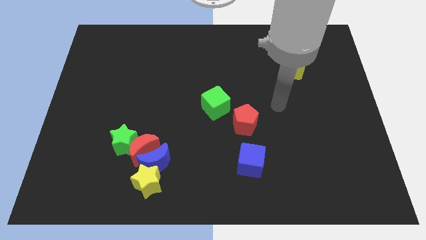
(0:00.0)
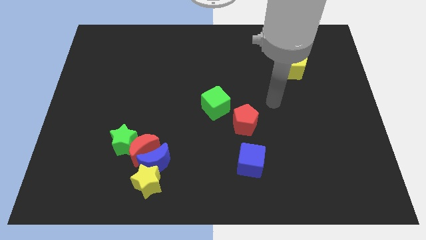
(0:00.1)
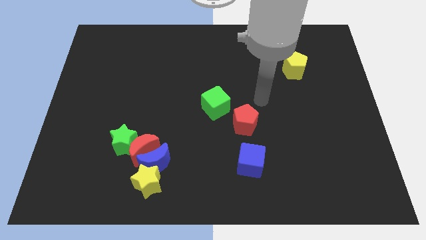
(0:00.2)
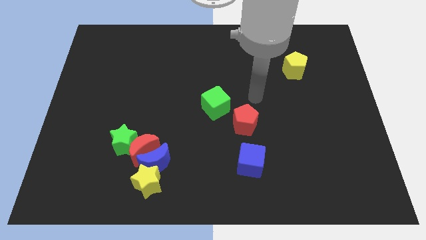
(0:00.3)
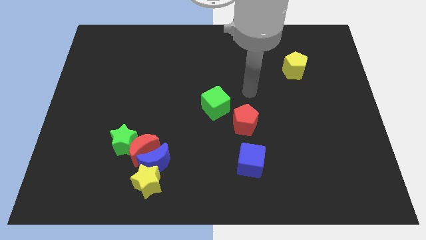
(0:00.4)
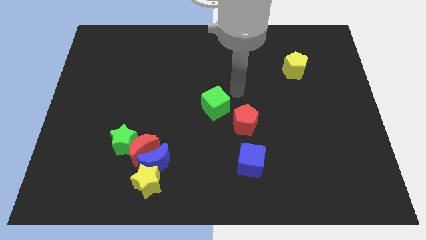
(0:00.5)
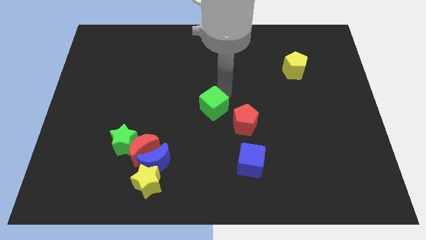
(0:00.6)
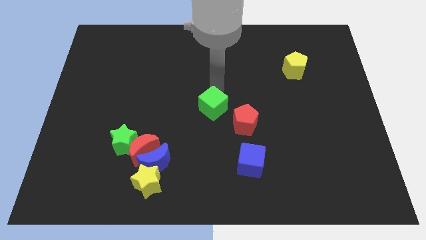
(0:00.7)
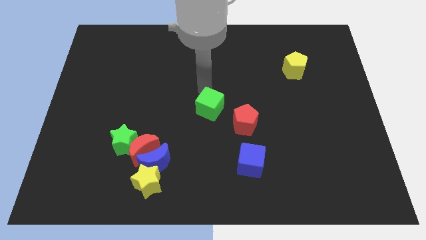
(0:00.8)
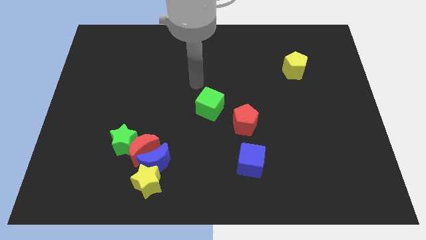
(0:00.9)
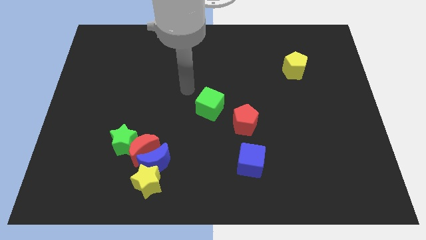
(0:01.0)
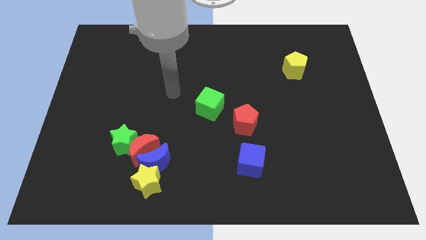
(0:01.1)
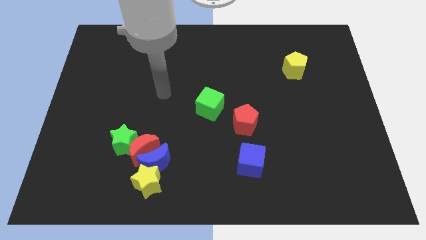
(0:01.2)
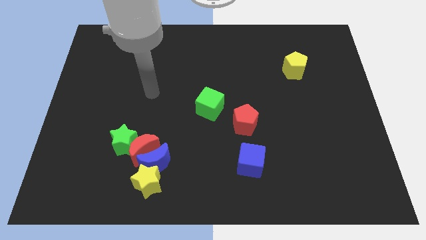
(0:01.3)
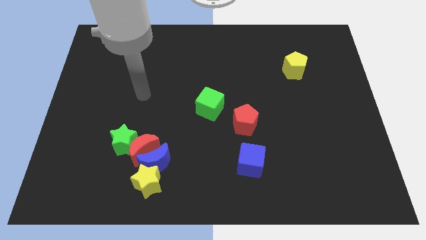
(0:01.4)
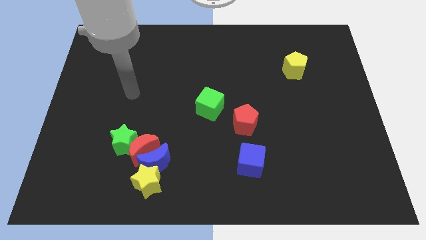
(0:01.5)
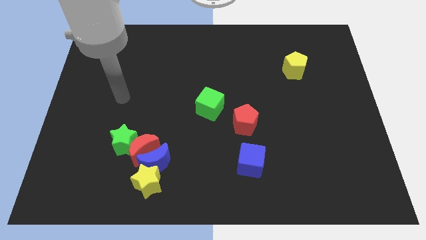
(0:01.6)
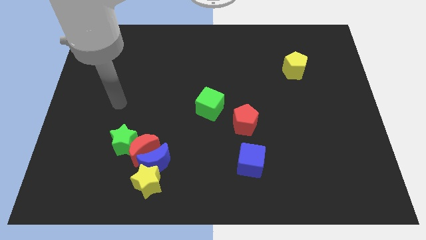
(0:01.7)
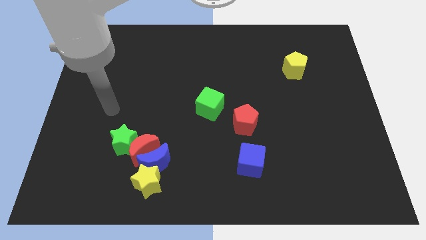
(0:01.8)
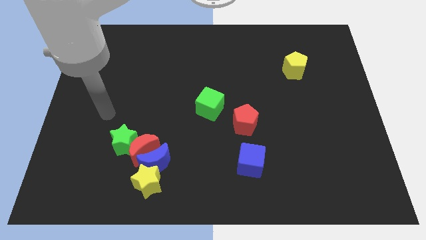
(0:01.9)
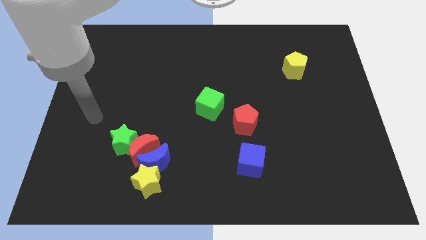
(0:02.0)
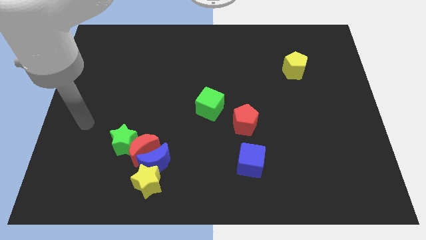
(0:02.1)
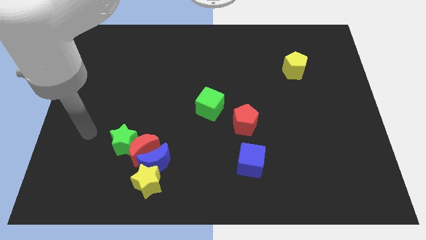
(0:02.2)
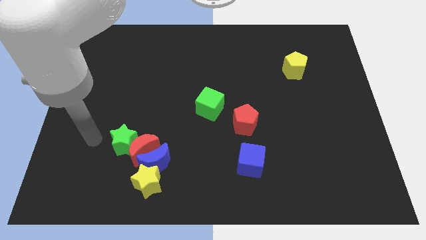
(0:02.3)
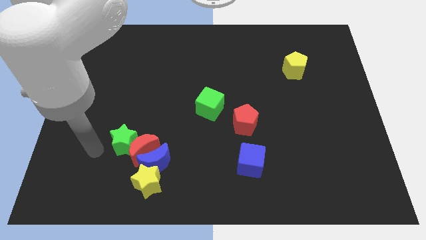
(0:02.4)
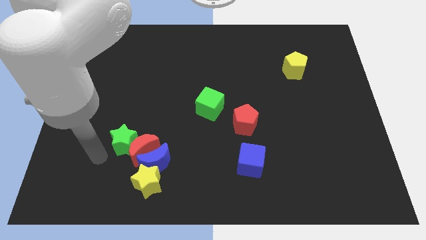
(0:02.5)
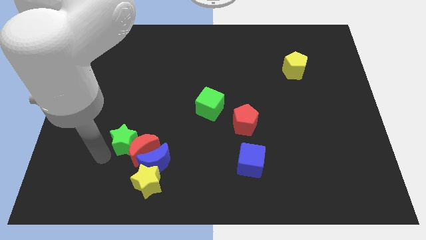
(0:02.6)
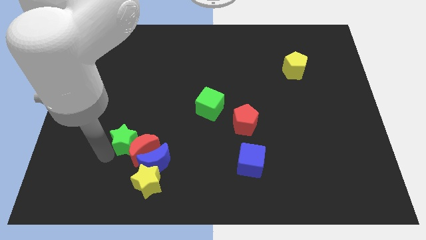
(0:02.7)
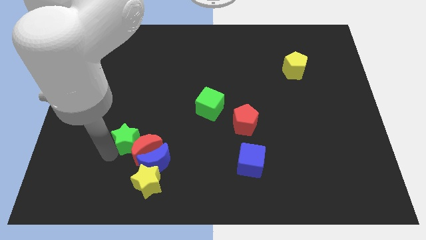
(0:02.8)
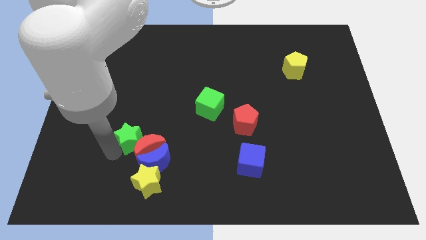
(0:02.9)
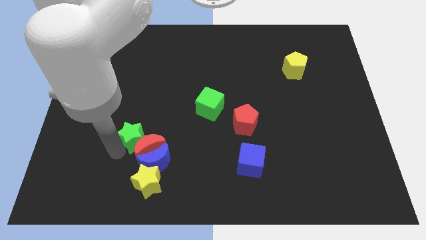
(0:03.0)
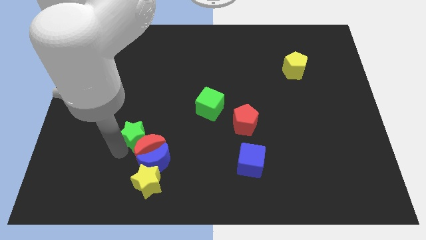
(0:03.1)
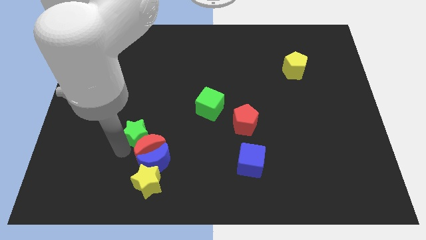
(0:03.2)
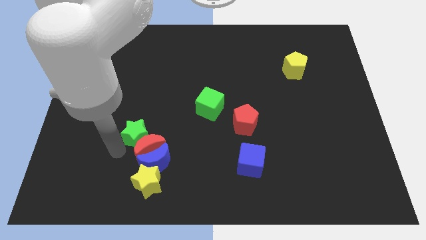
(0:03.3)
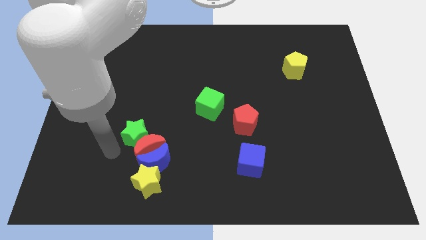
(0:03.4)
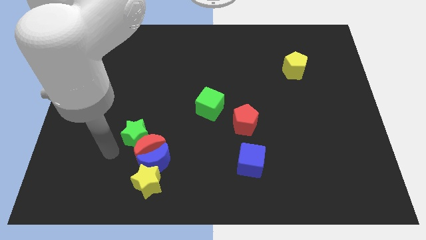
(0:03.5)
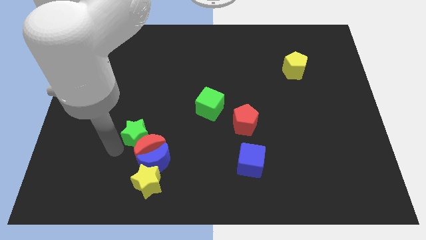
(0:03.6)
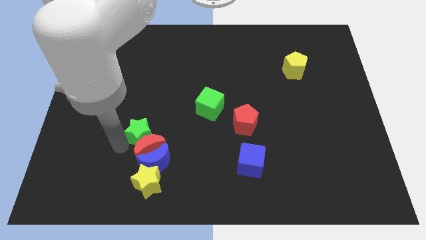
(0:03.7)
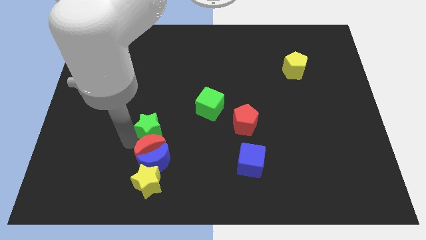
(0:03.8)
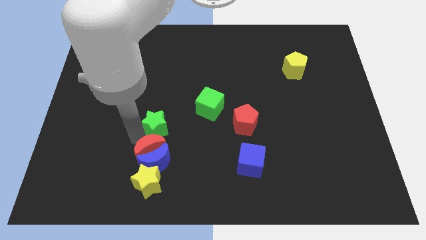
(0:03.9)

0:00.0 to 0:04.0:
slightly move the green star upwards and to the right

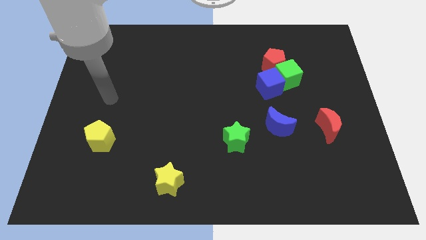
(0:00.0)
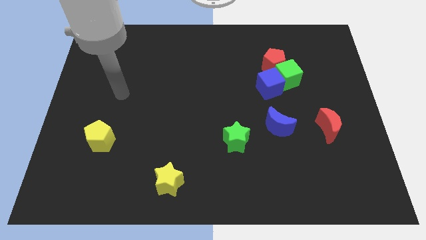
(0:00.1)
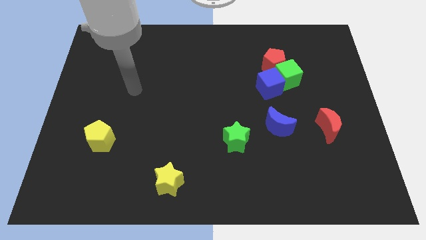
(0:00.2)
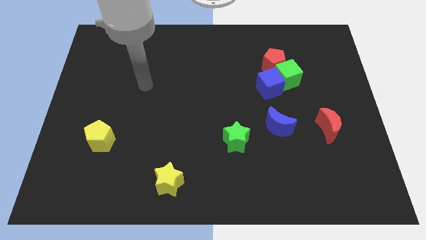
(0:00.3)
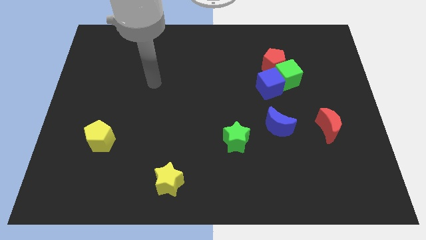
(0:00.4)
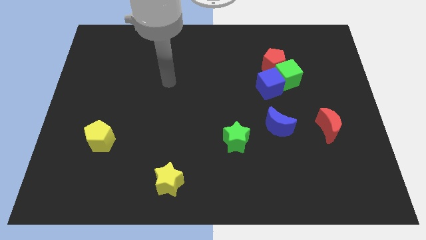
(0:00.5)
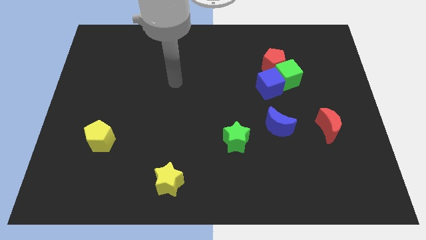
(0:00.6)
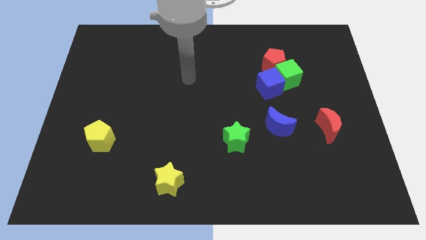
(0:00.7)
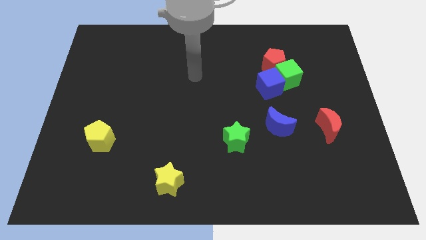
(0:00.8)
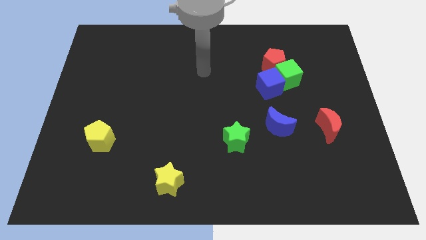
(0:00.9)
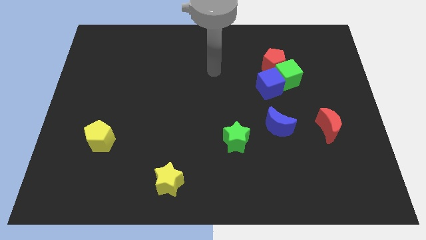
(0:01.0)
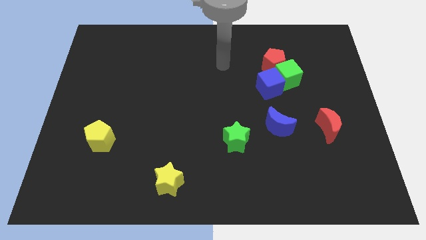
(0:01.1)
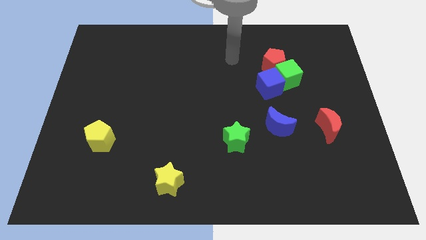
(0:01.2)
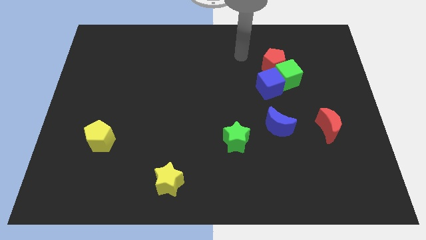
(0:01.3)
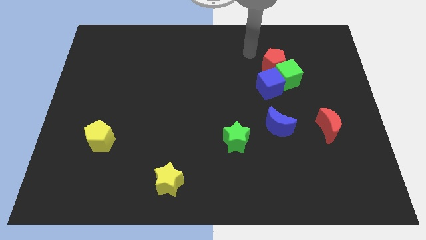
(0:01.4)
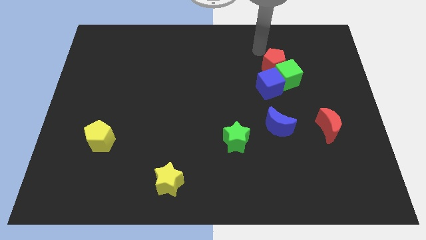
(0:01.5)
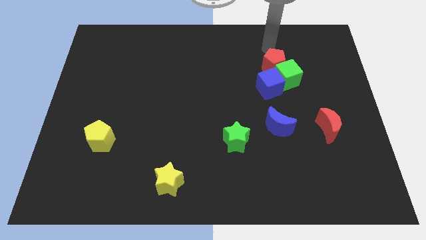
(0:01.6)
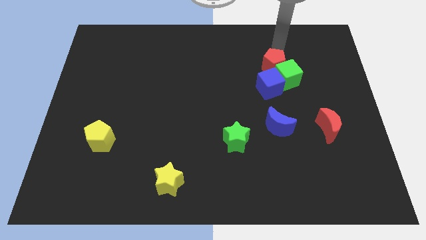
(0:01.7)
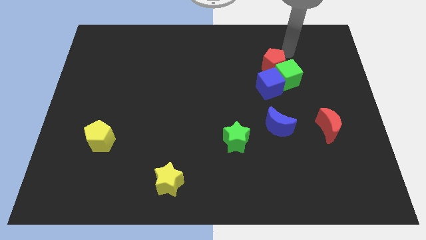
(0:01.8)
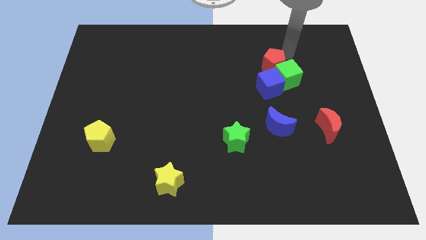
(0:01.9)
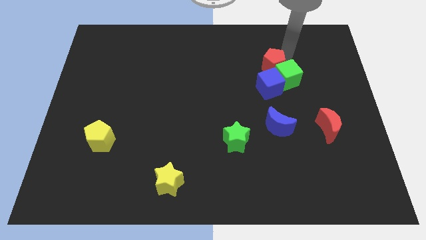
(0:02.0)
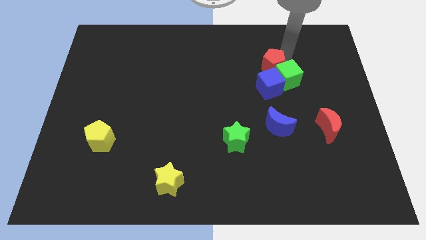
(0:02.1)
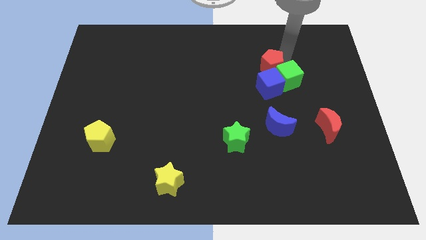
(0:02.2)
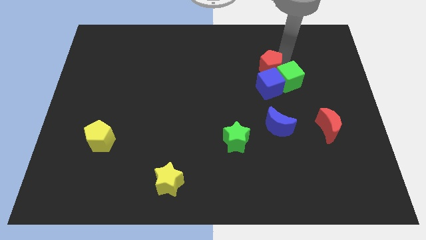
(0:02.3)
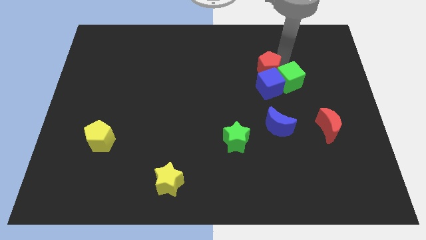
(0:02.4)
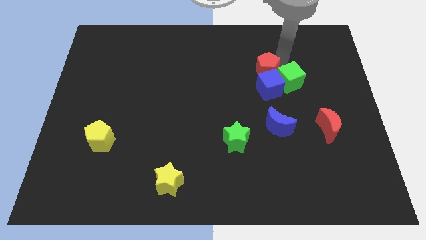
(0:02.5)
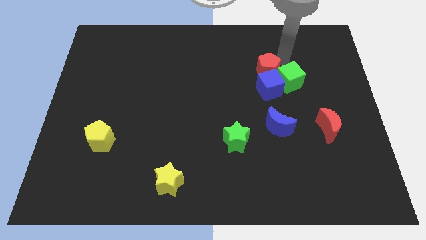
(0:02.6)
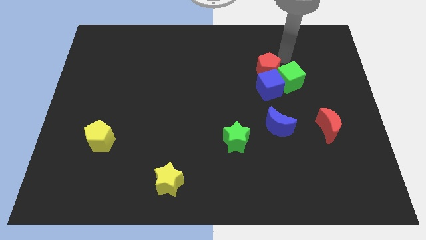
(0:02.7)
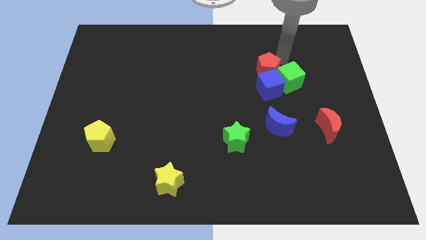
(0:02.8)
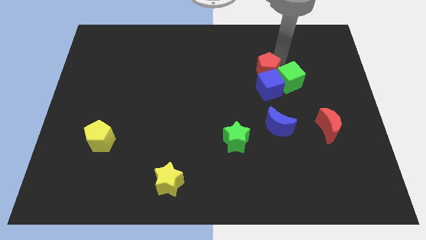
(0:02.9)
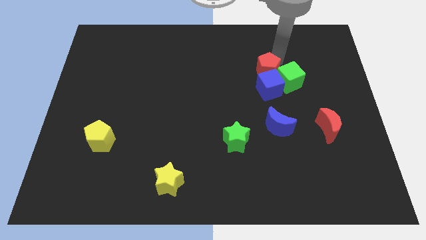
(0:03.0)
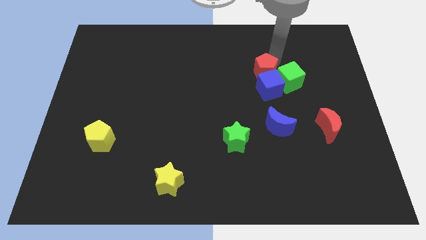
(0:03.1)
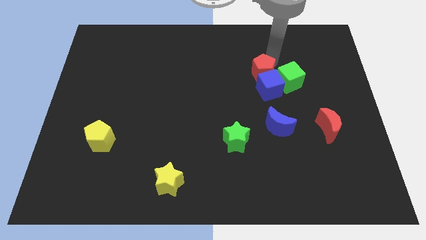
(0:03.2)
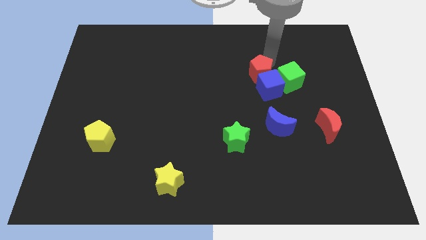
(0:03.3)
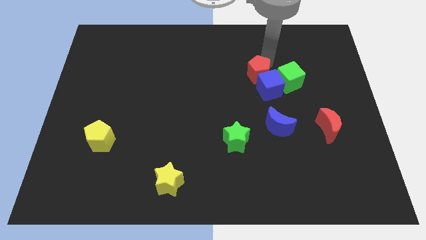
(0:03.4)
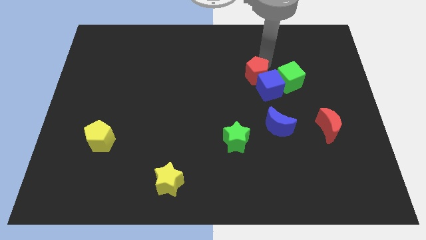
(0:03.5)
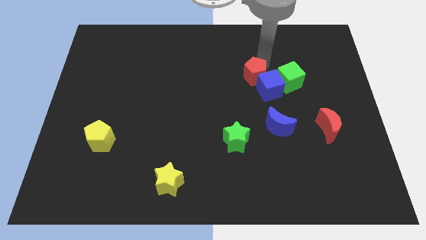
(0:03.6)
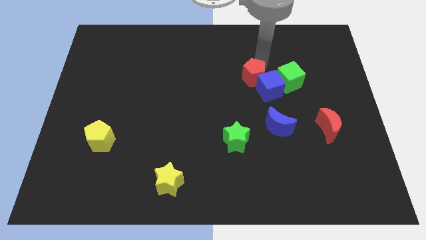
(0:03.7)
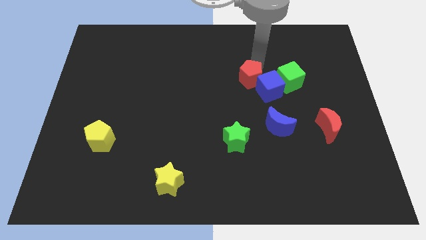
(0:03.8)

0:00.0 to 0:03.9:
push the red pentagon somewhat downwards and to the left
